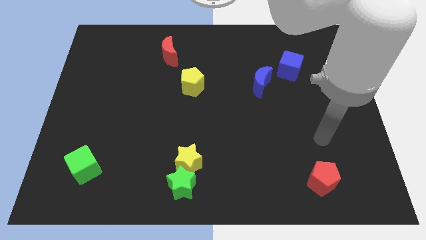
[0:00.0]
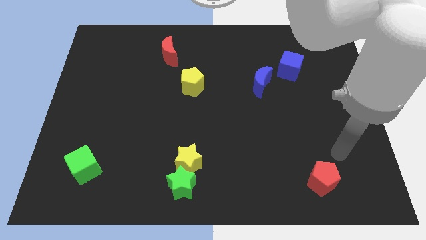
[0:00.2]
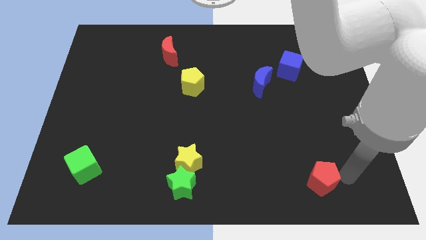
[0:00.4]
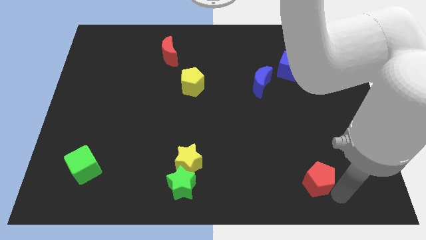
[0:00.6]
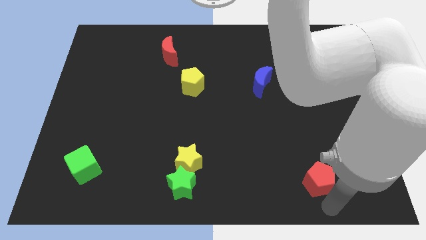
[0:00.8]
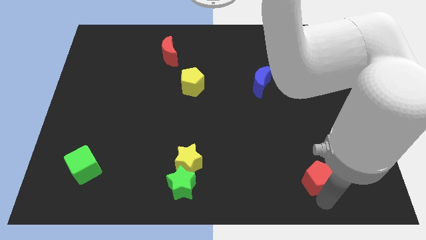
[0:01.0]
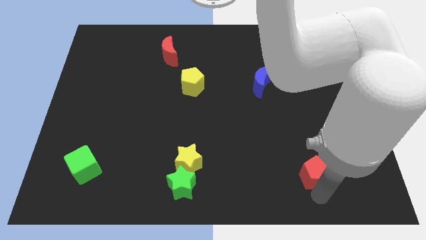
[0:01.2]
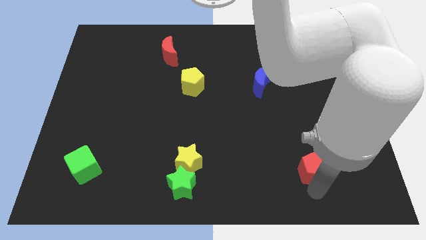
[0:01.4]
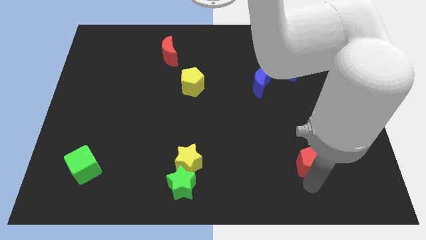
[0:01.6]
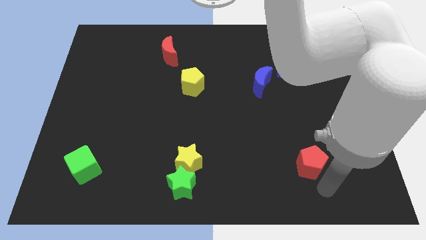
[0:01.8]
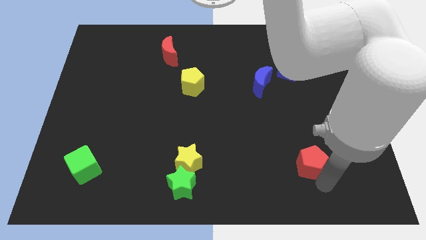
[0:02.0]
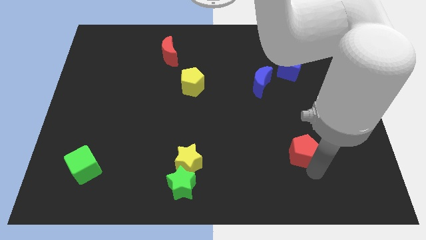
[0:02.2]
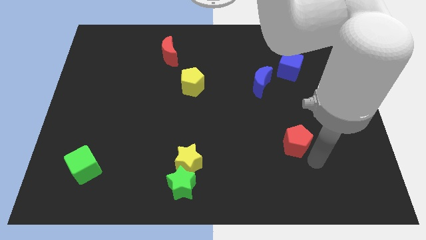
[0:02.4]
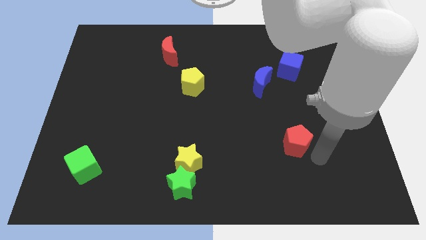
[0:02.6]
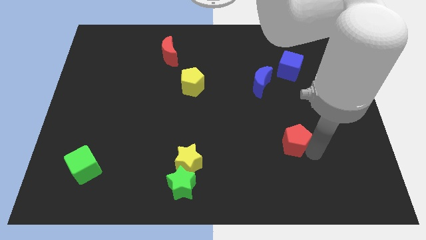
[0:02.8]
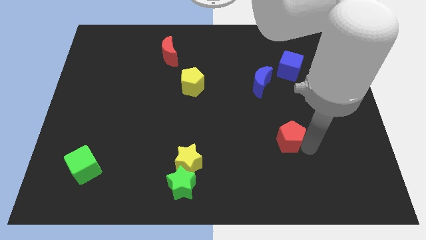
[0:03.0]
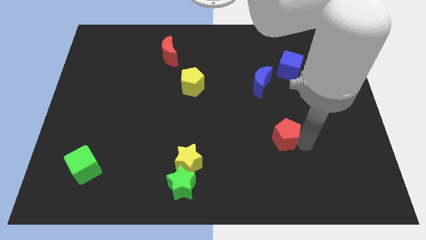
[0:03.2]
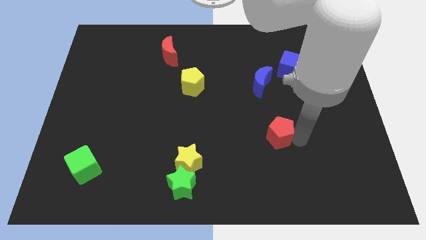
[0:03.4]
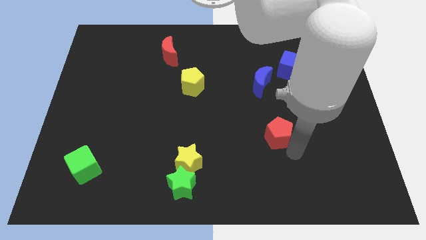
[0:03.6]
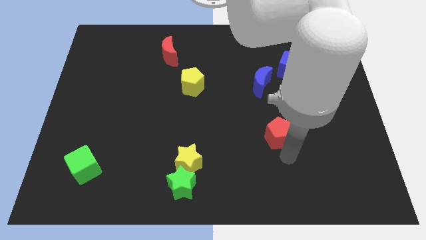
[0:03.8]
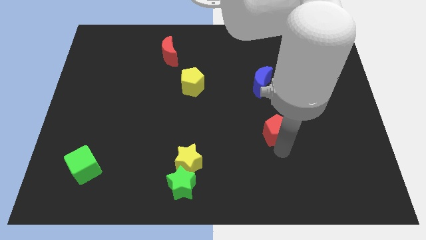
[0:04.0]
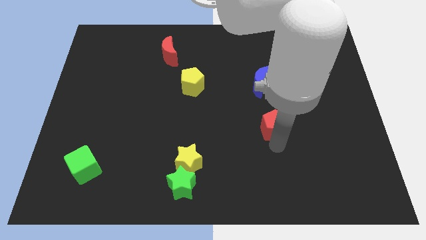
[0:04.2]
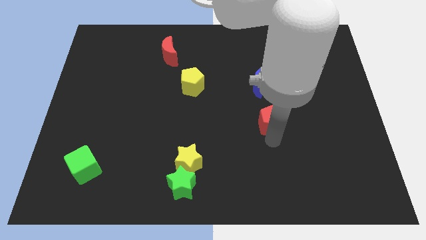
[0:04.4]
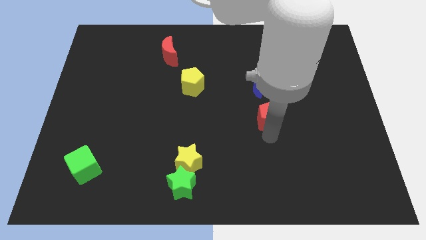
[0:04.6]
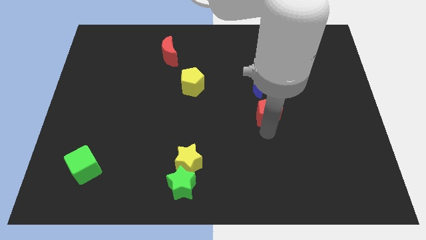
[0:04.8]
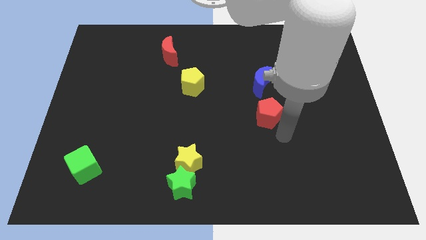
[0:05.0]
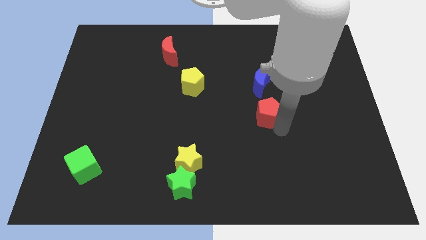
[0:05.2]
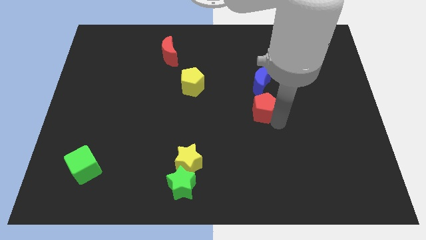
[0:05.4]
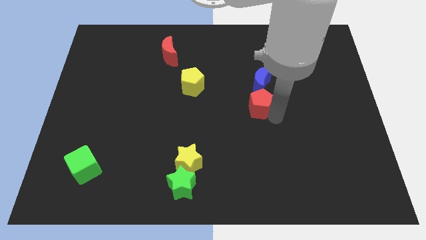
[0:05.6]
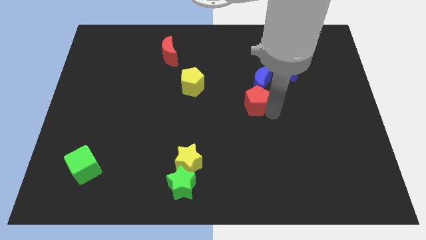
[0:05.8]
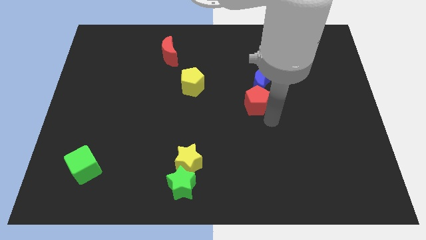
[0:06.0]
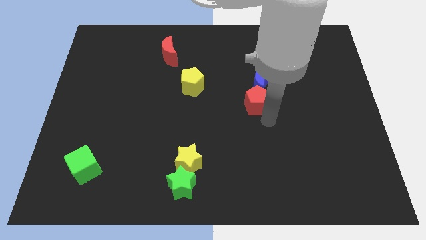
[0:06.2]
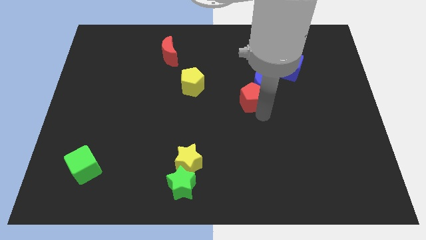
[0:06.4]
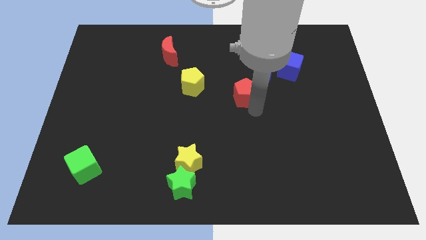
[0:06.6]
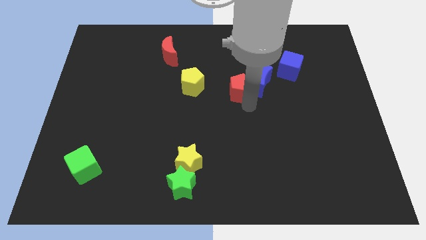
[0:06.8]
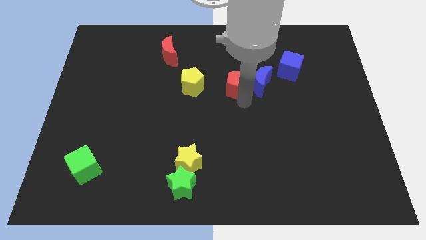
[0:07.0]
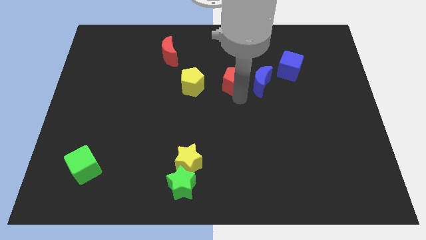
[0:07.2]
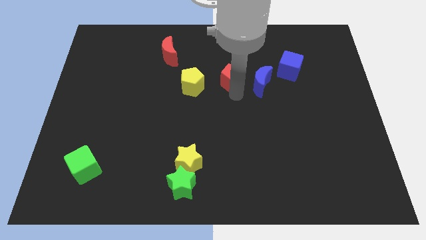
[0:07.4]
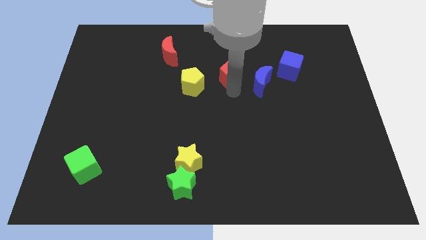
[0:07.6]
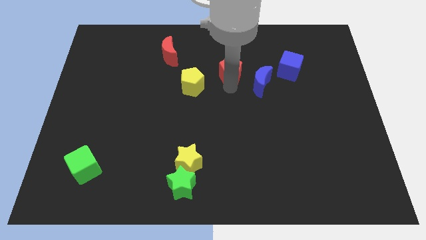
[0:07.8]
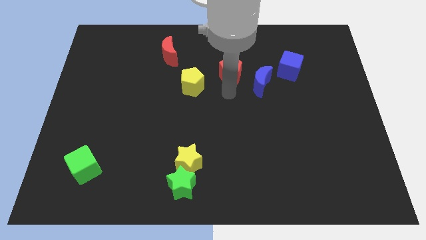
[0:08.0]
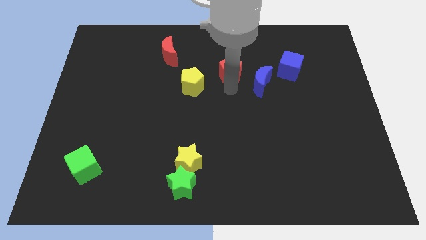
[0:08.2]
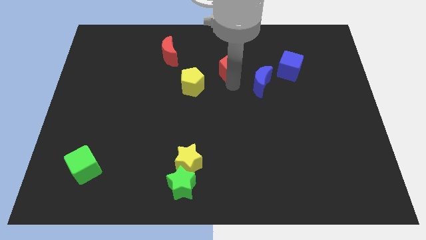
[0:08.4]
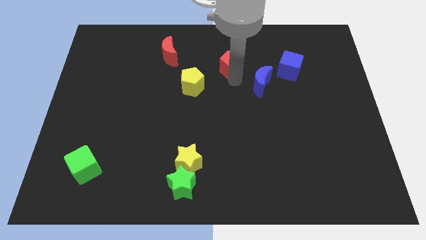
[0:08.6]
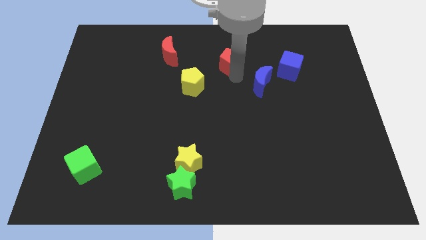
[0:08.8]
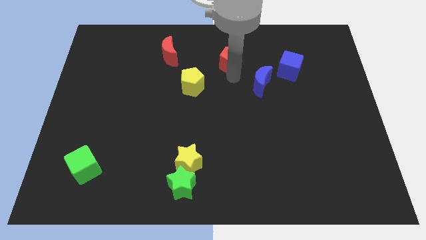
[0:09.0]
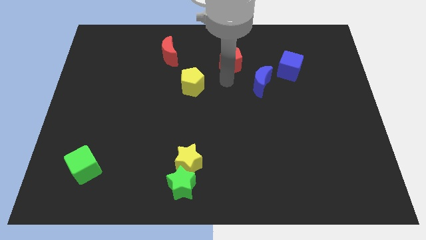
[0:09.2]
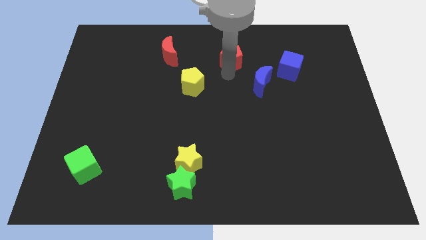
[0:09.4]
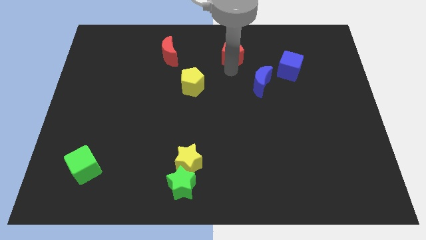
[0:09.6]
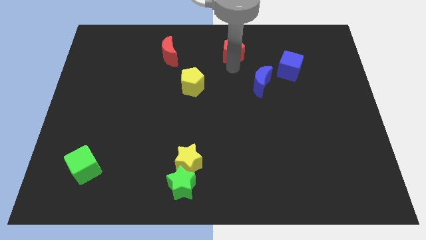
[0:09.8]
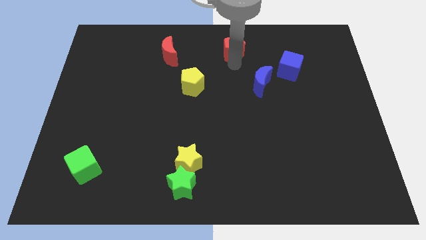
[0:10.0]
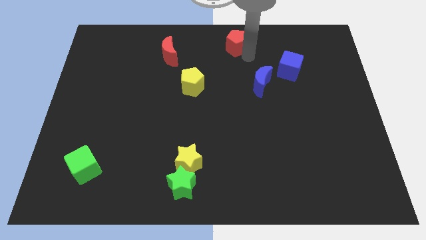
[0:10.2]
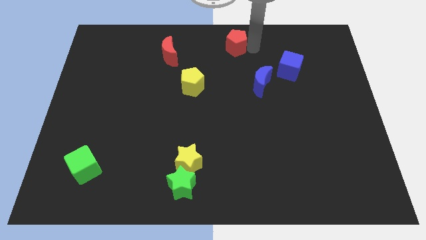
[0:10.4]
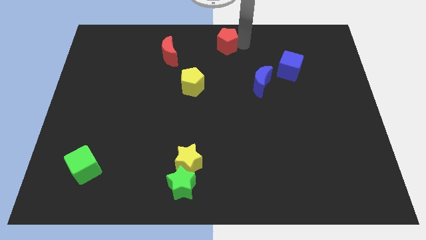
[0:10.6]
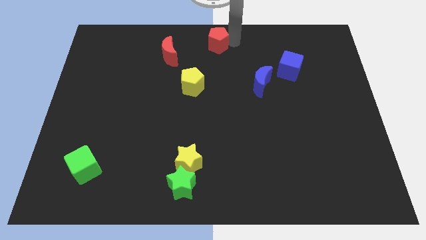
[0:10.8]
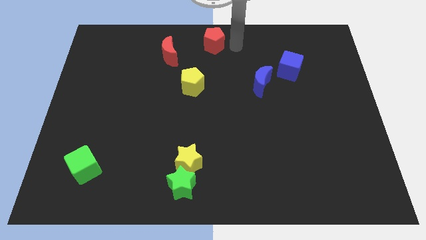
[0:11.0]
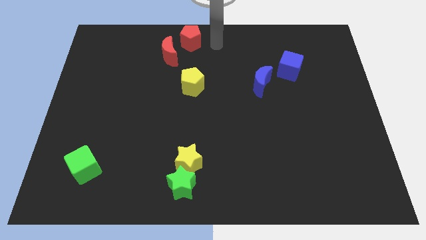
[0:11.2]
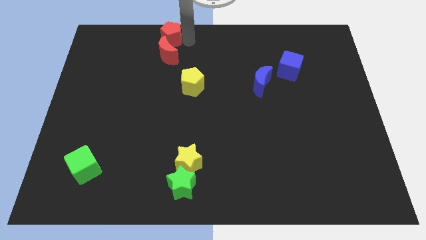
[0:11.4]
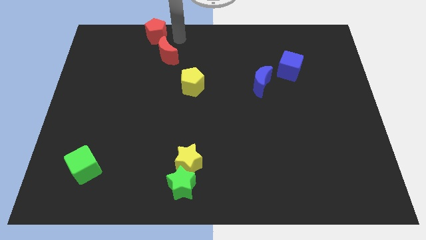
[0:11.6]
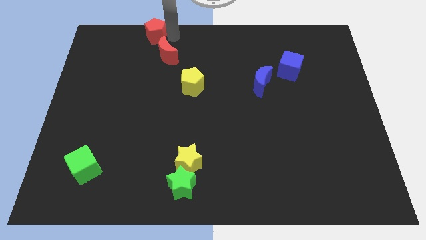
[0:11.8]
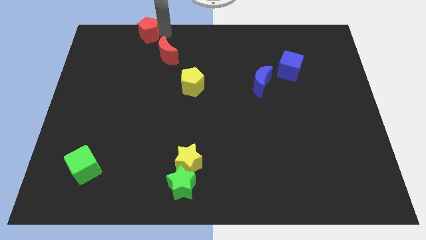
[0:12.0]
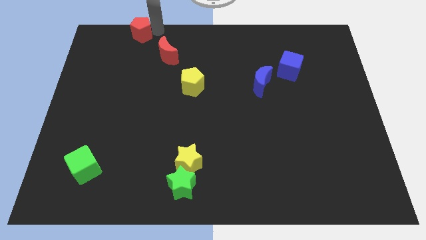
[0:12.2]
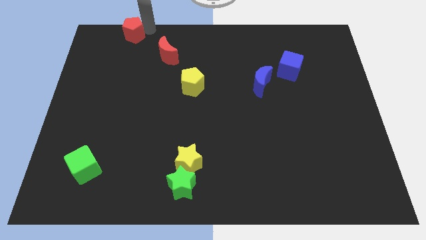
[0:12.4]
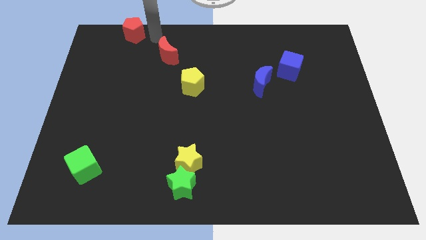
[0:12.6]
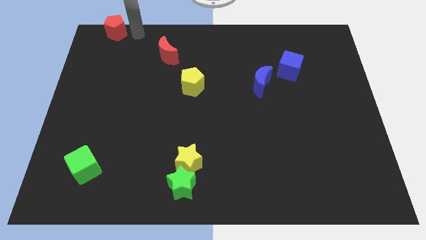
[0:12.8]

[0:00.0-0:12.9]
put the red pentagon to the top left of the board
